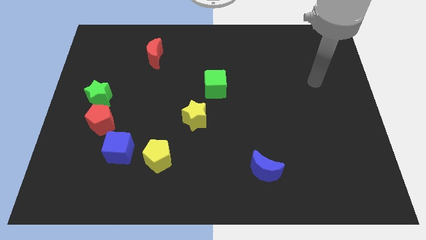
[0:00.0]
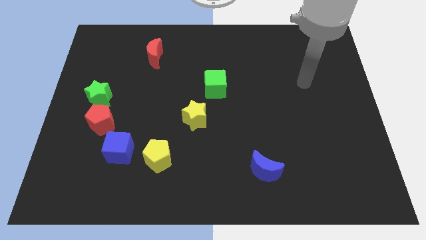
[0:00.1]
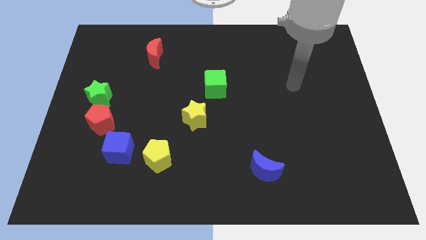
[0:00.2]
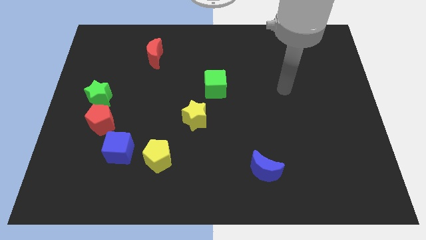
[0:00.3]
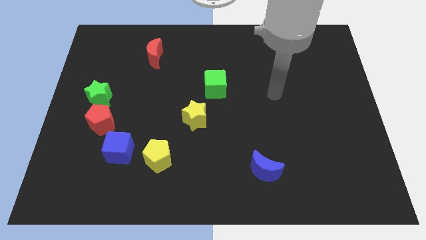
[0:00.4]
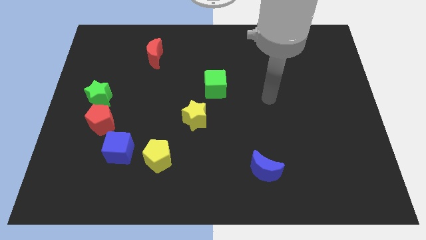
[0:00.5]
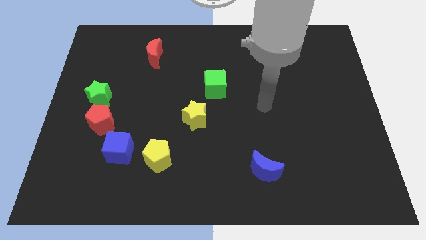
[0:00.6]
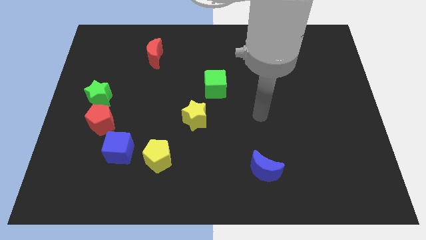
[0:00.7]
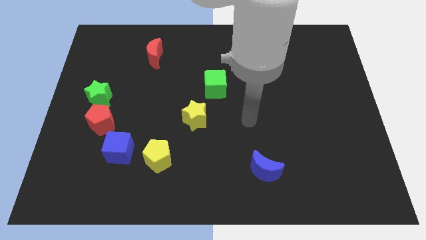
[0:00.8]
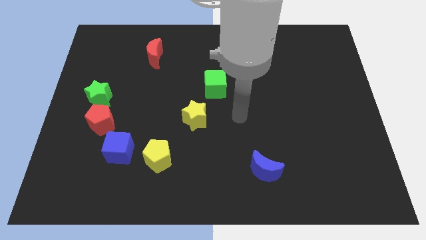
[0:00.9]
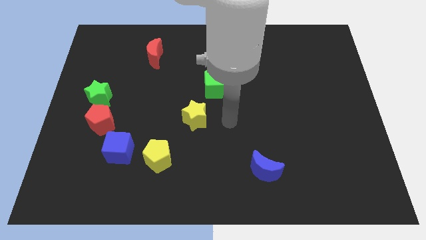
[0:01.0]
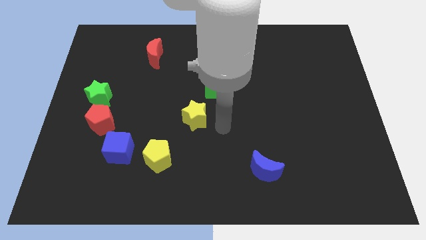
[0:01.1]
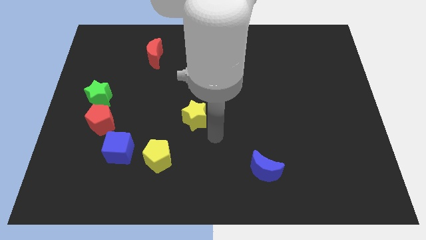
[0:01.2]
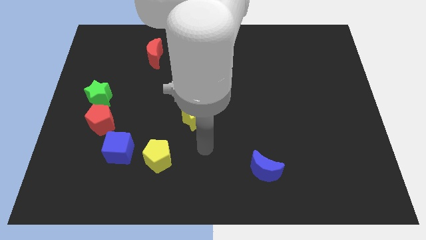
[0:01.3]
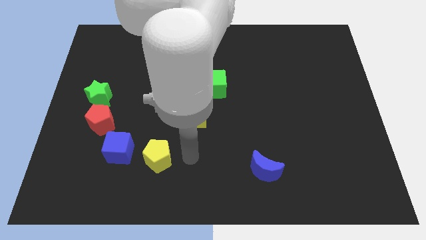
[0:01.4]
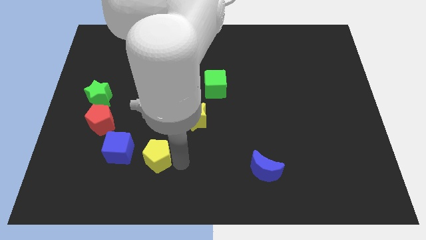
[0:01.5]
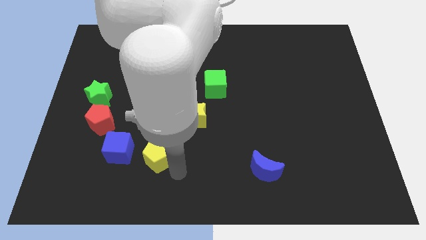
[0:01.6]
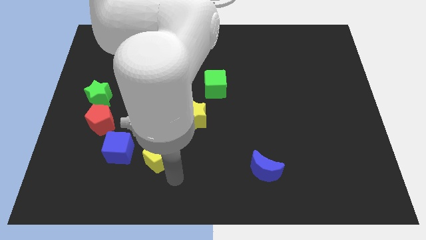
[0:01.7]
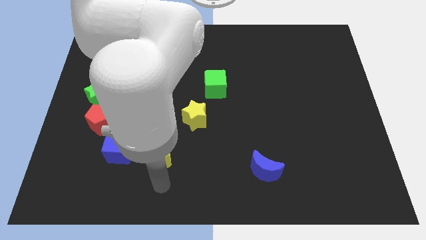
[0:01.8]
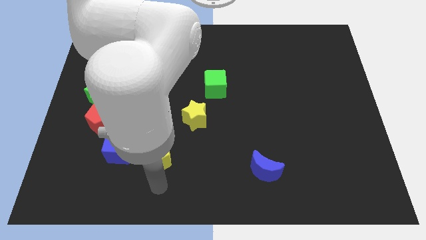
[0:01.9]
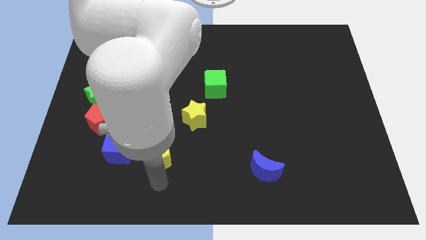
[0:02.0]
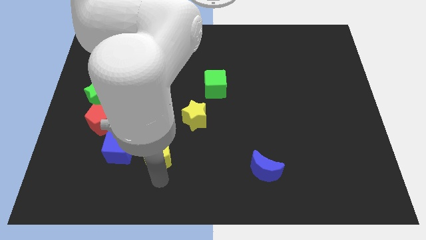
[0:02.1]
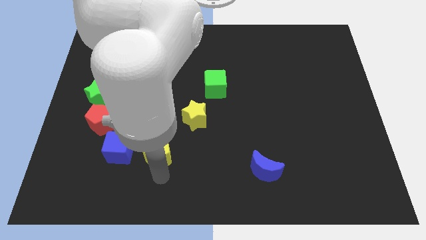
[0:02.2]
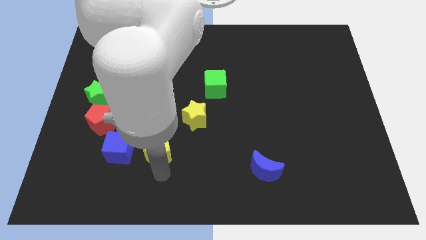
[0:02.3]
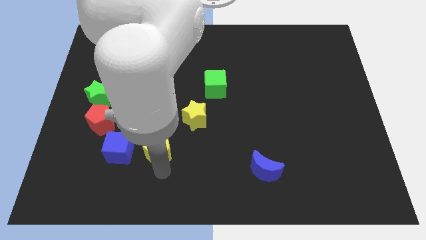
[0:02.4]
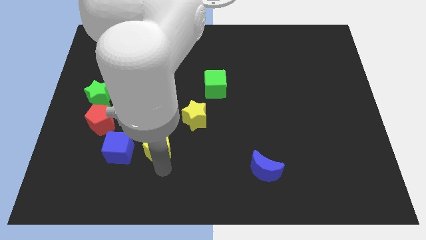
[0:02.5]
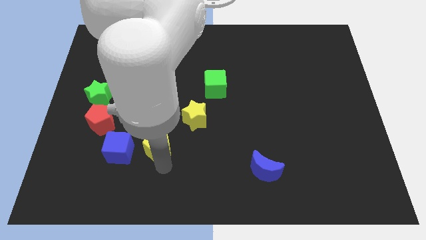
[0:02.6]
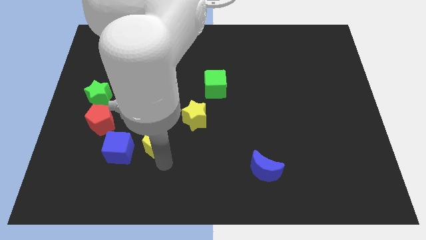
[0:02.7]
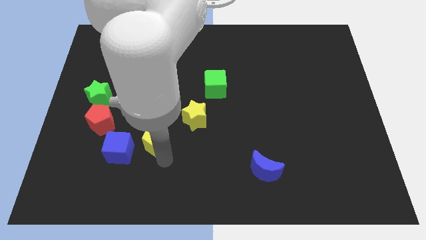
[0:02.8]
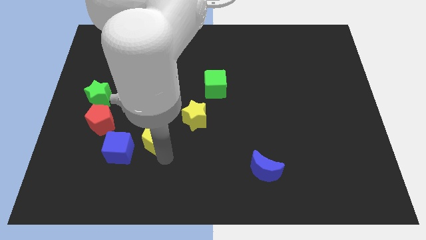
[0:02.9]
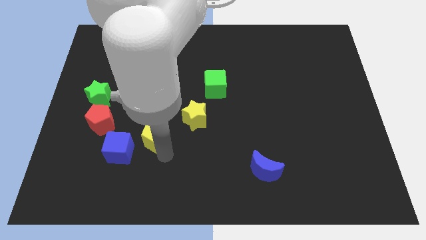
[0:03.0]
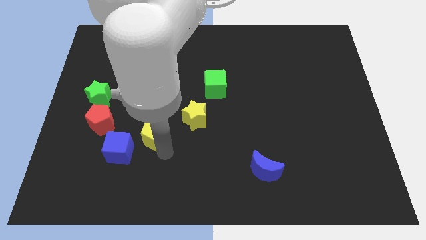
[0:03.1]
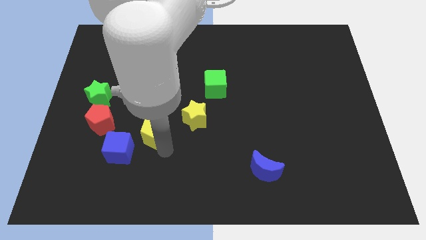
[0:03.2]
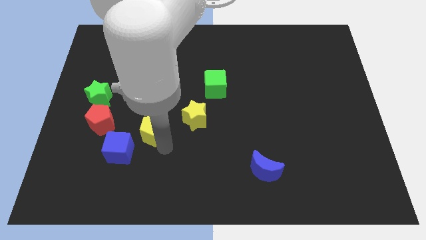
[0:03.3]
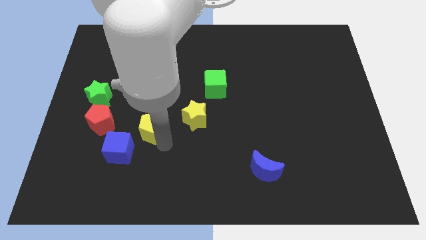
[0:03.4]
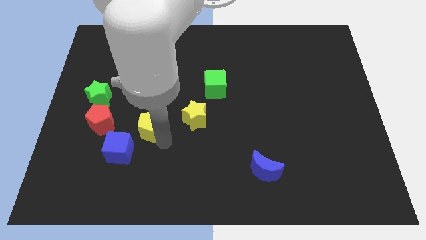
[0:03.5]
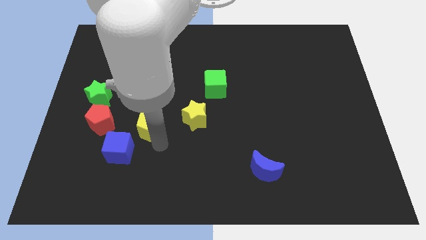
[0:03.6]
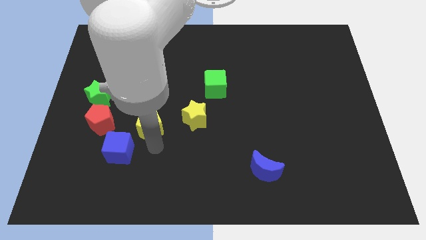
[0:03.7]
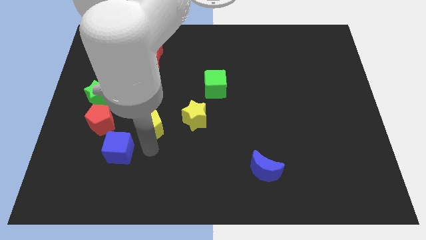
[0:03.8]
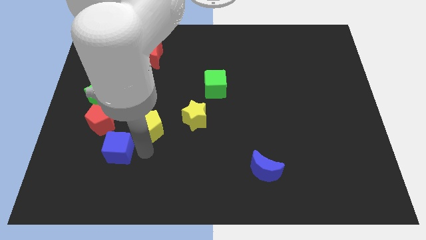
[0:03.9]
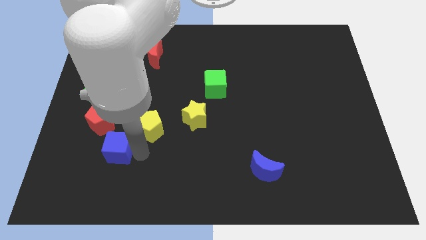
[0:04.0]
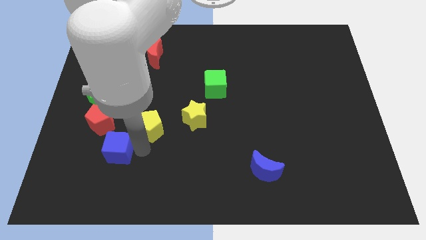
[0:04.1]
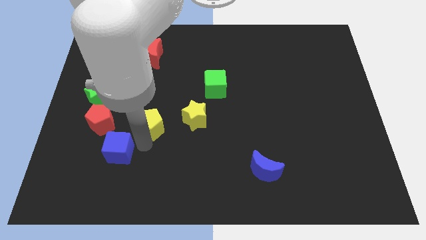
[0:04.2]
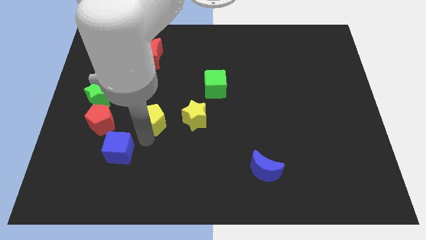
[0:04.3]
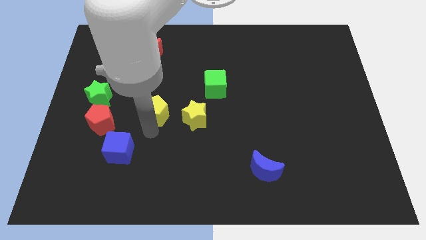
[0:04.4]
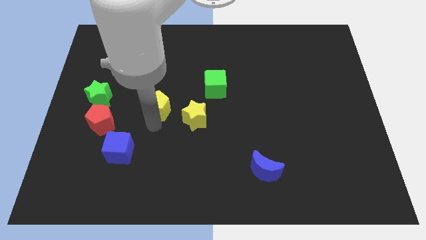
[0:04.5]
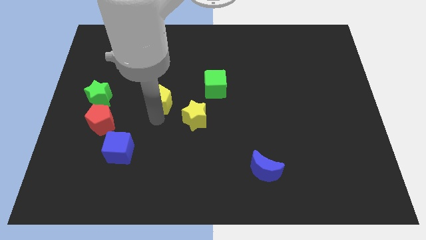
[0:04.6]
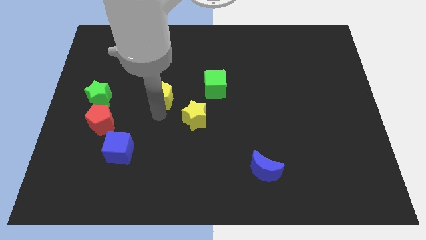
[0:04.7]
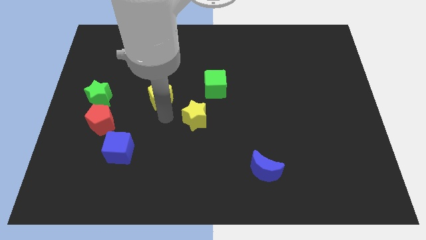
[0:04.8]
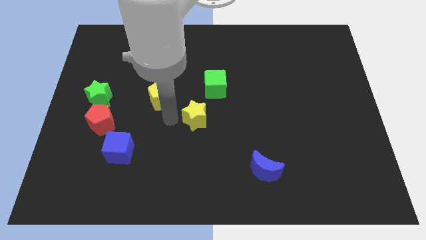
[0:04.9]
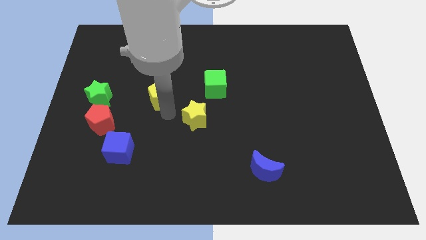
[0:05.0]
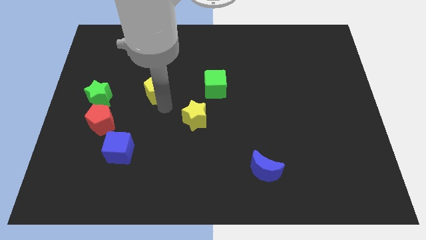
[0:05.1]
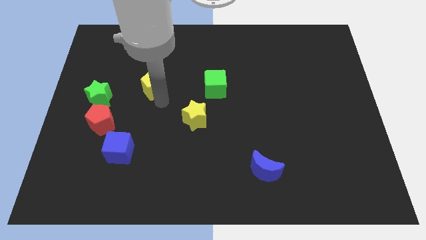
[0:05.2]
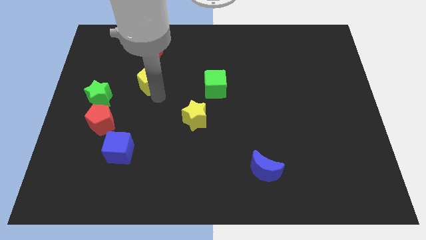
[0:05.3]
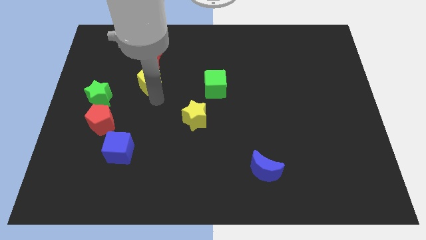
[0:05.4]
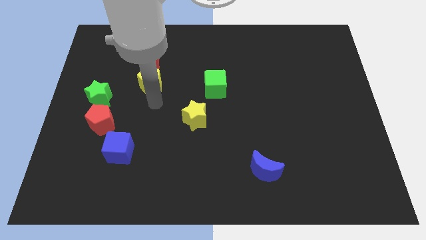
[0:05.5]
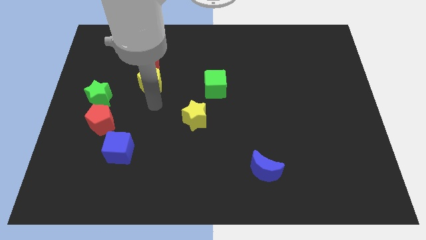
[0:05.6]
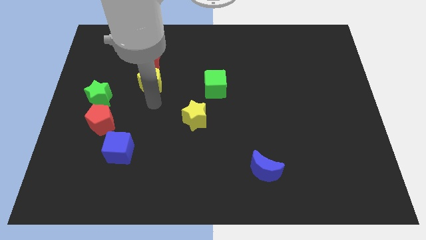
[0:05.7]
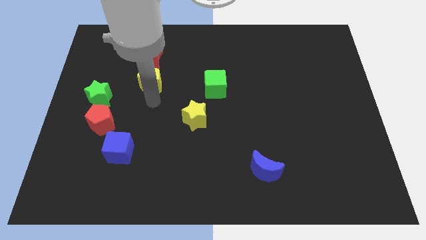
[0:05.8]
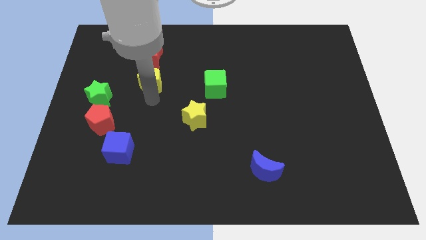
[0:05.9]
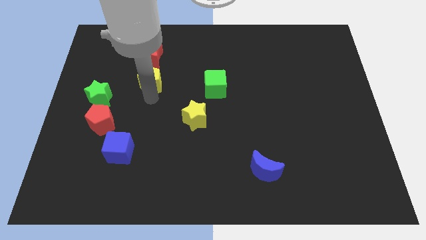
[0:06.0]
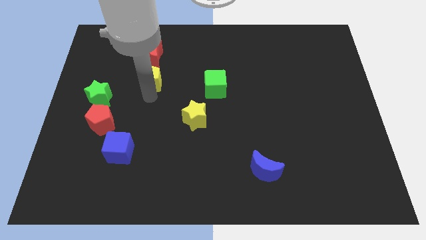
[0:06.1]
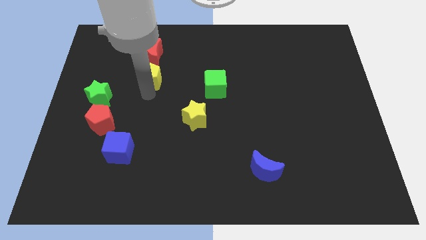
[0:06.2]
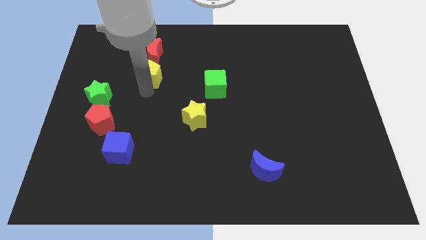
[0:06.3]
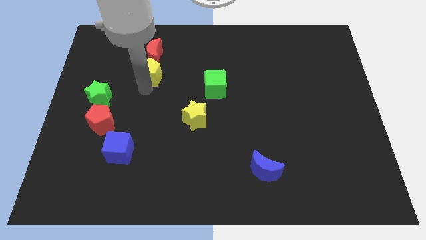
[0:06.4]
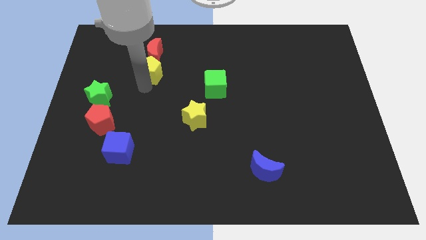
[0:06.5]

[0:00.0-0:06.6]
push the yellow pentagon next to the red moon

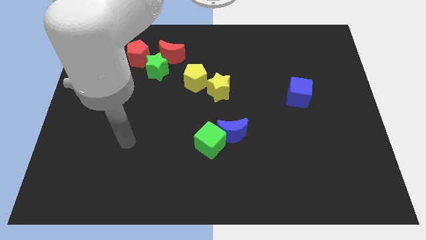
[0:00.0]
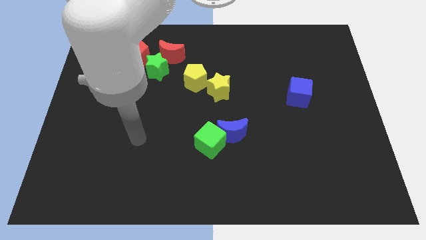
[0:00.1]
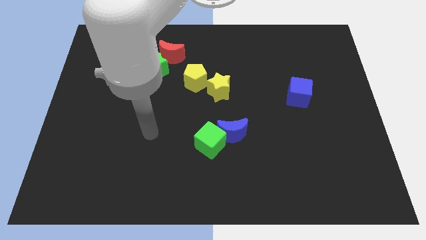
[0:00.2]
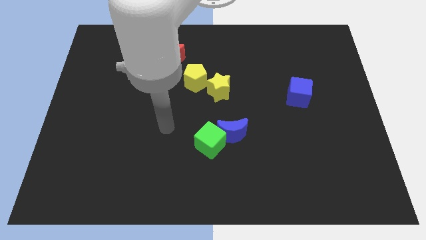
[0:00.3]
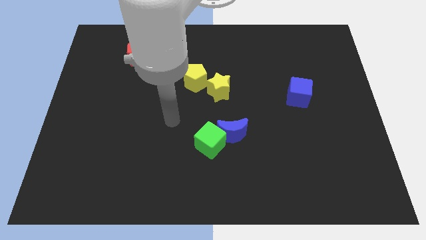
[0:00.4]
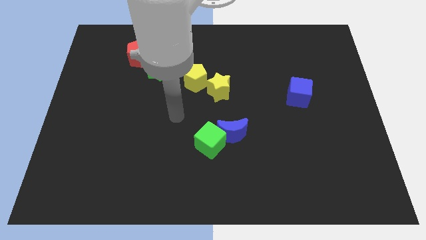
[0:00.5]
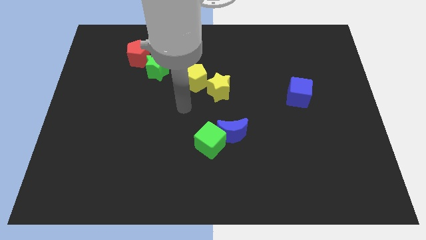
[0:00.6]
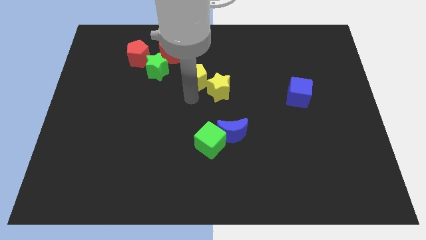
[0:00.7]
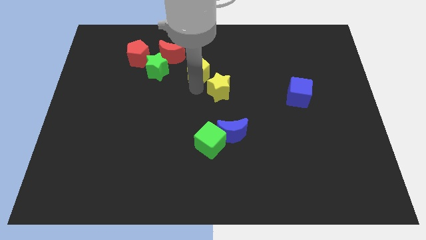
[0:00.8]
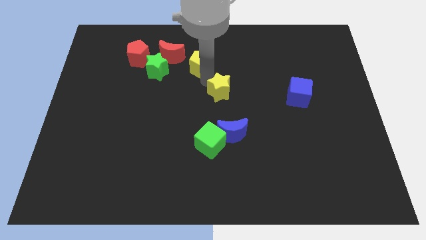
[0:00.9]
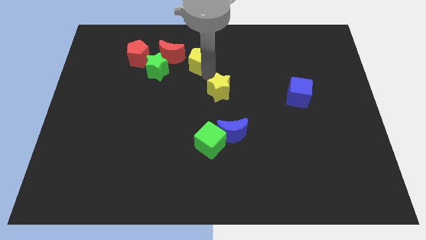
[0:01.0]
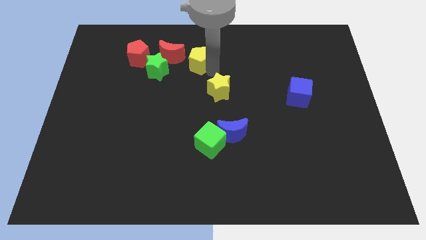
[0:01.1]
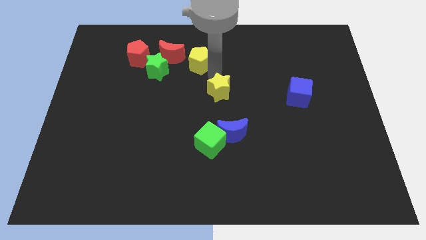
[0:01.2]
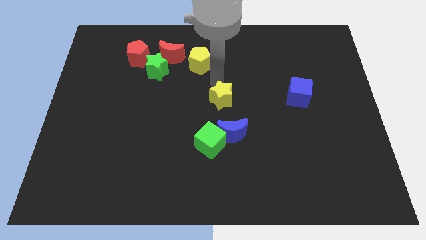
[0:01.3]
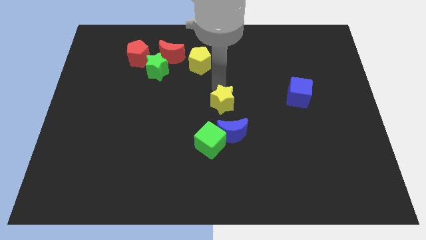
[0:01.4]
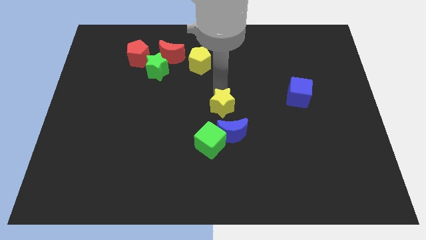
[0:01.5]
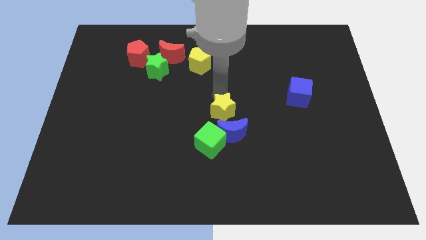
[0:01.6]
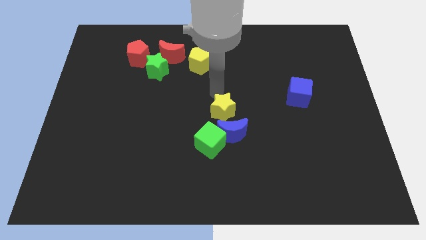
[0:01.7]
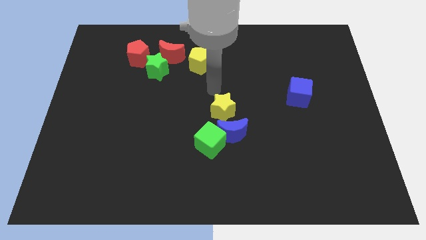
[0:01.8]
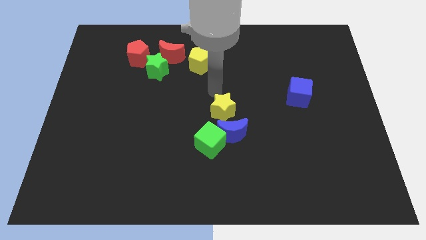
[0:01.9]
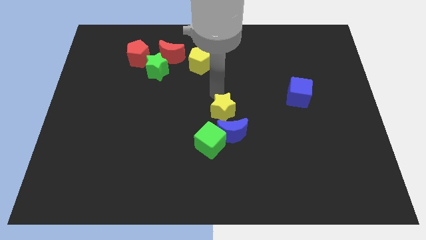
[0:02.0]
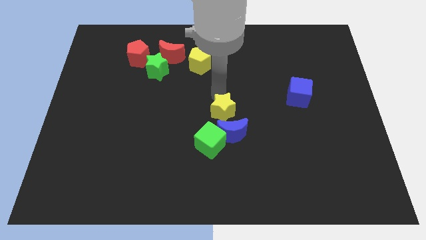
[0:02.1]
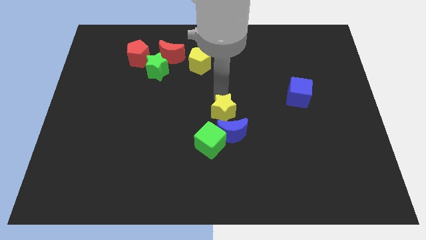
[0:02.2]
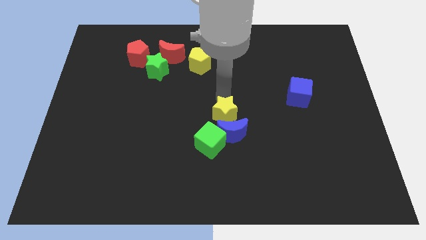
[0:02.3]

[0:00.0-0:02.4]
put the yellow star to the blue moon
